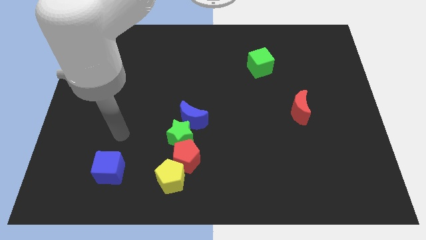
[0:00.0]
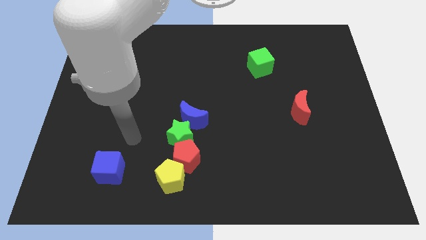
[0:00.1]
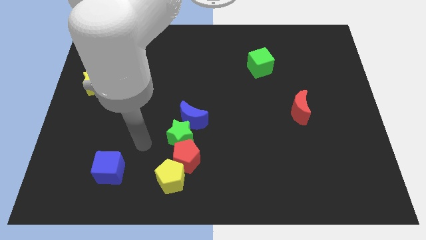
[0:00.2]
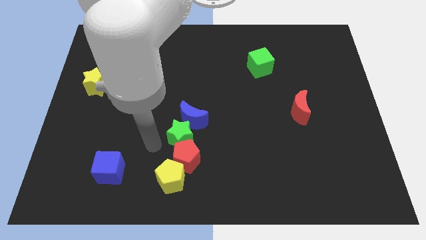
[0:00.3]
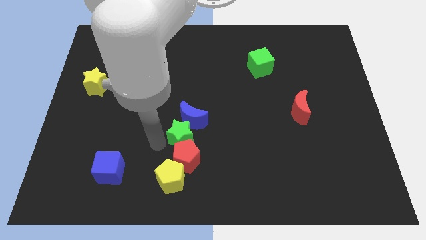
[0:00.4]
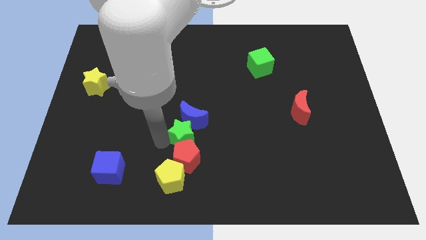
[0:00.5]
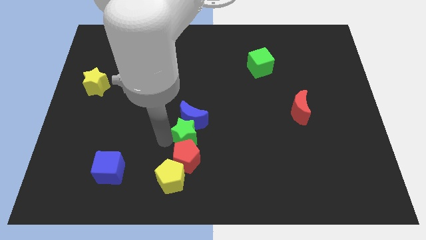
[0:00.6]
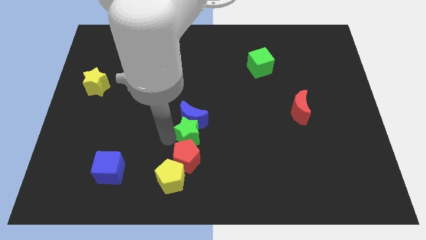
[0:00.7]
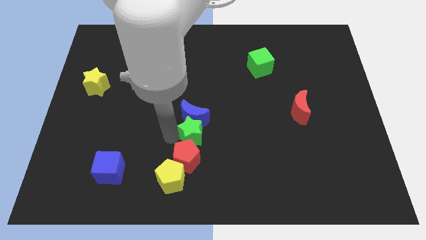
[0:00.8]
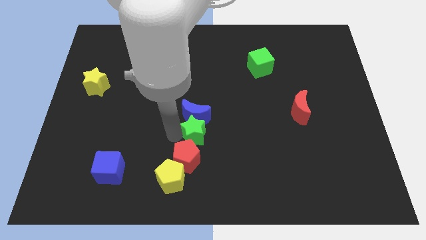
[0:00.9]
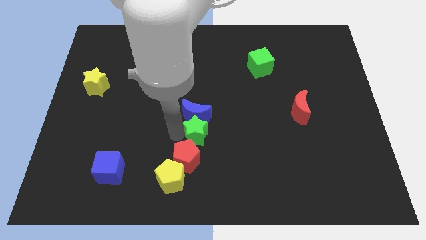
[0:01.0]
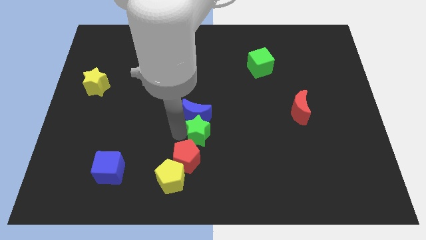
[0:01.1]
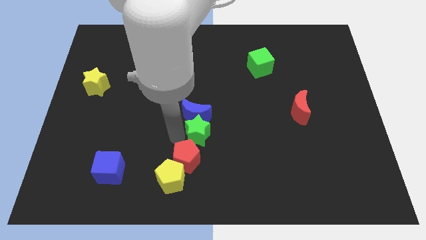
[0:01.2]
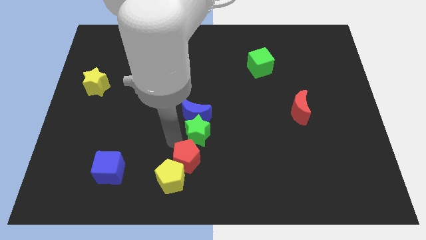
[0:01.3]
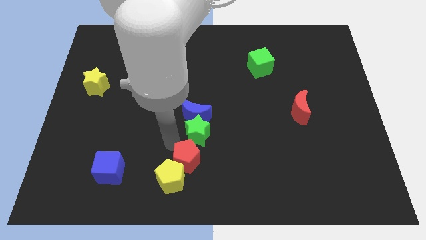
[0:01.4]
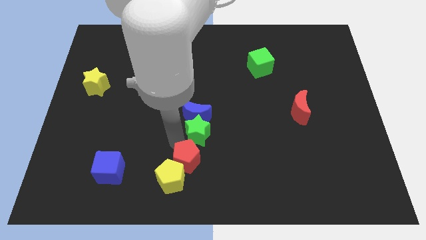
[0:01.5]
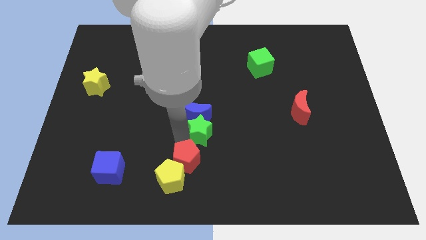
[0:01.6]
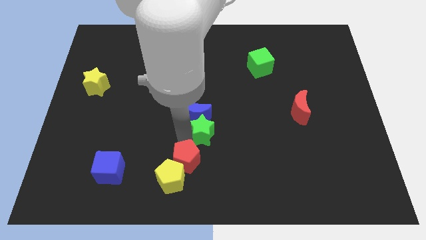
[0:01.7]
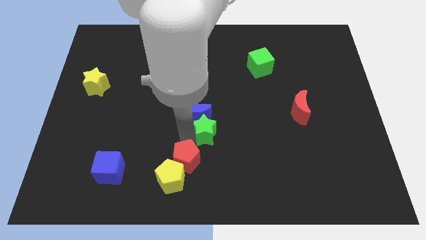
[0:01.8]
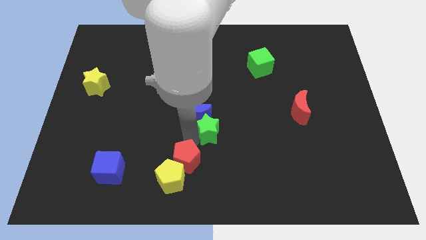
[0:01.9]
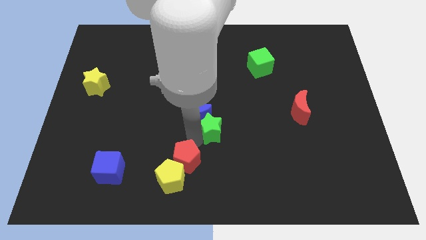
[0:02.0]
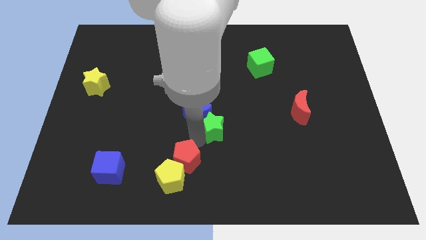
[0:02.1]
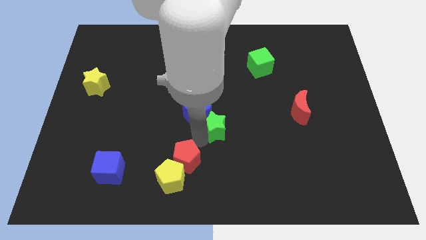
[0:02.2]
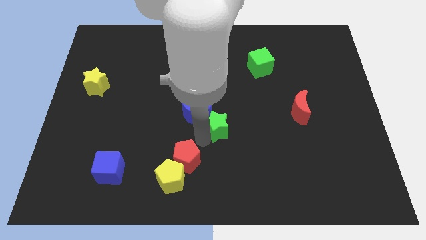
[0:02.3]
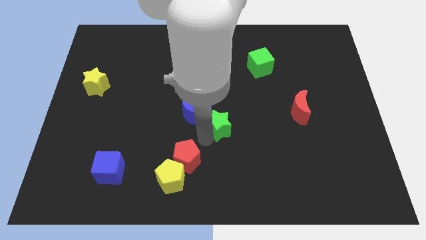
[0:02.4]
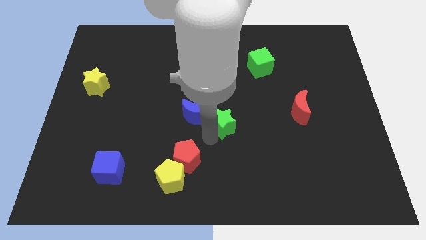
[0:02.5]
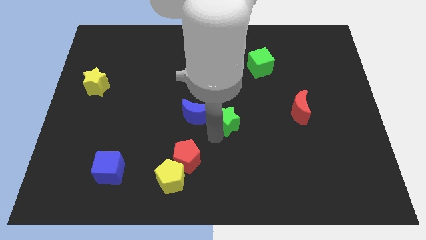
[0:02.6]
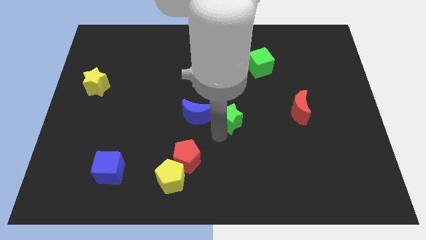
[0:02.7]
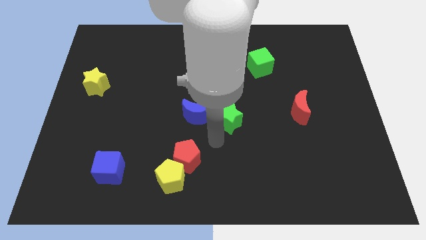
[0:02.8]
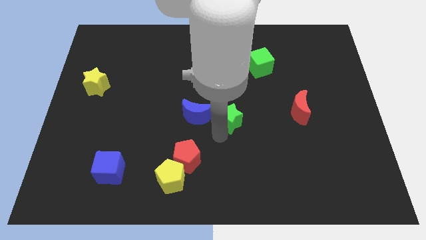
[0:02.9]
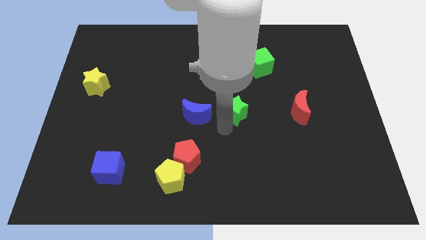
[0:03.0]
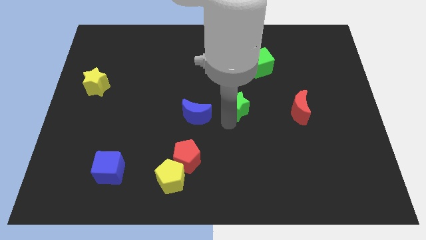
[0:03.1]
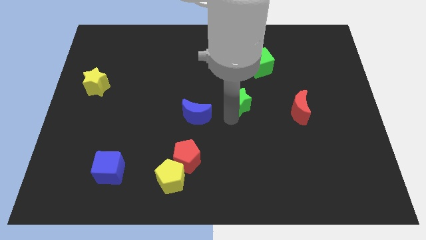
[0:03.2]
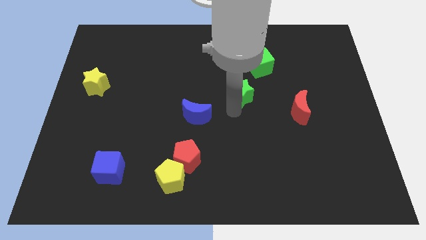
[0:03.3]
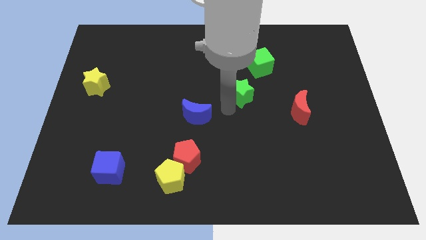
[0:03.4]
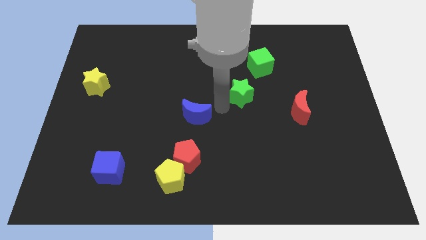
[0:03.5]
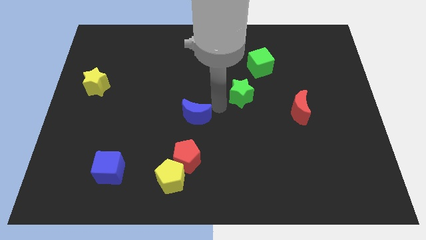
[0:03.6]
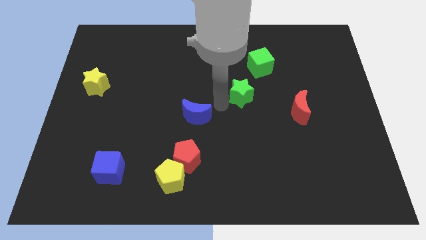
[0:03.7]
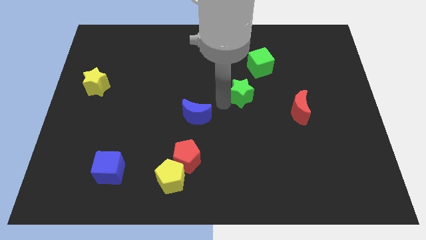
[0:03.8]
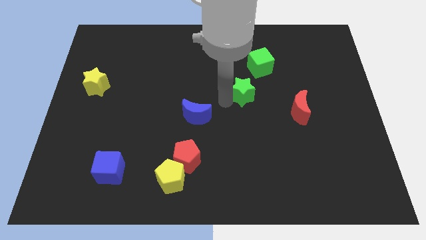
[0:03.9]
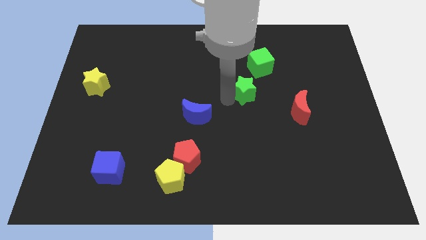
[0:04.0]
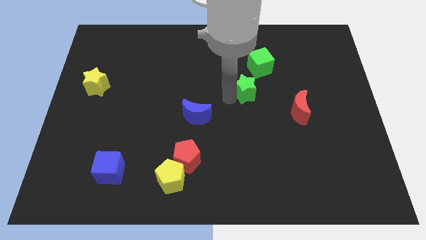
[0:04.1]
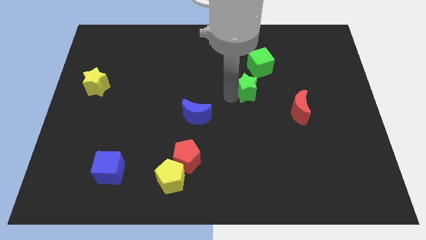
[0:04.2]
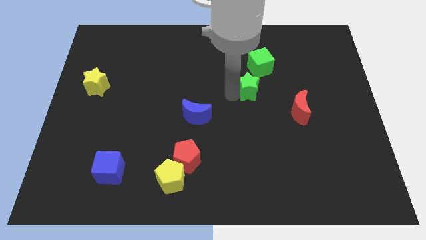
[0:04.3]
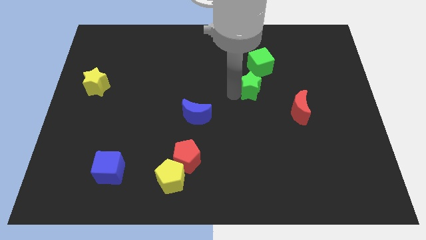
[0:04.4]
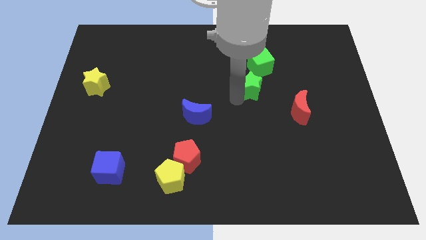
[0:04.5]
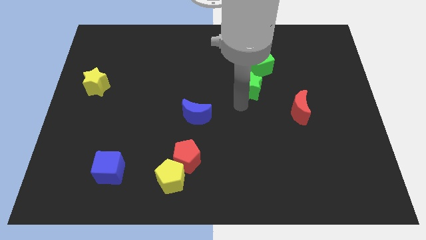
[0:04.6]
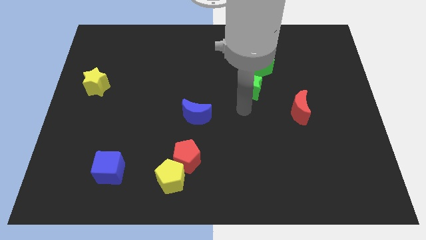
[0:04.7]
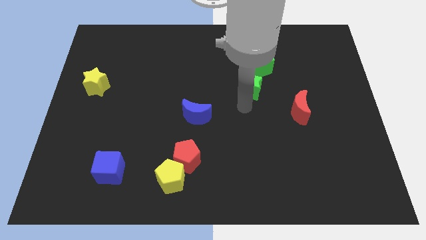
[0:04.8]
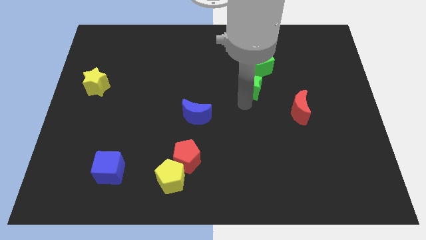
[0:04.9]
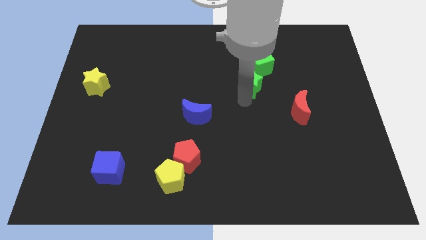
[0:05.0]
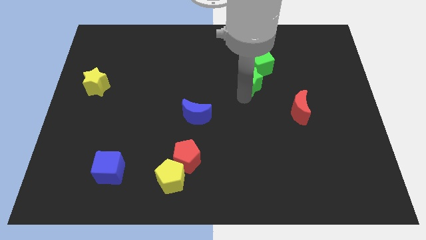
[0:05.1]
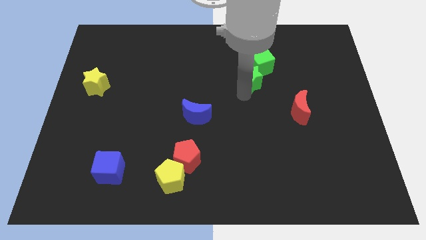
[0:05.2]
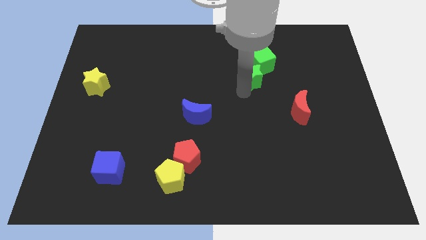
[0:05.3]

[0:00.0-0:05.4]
slide the green star to the green cube

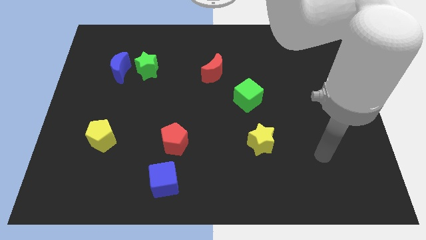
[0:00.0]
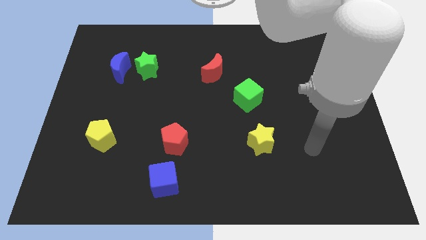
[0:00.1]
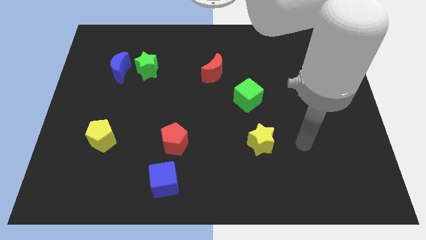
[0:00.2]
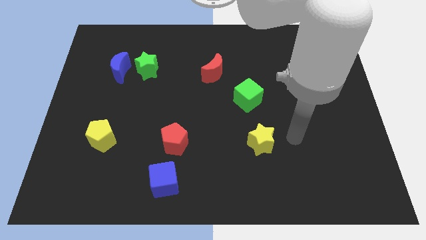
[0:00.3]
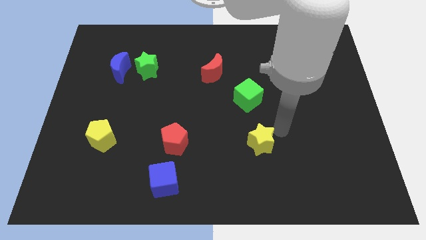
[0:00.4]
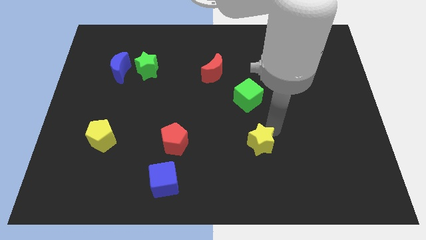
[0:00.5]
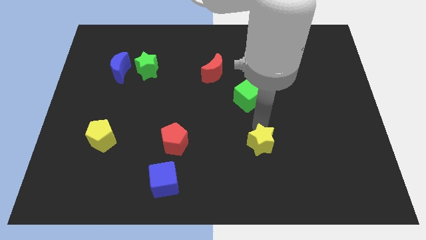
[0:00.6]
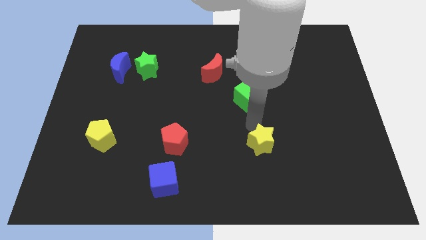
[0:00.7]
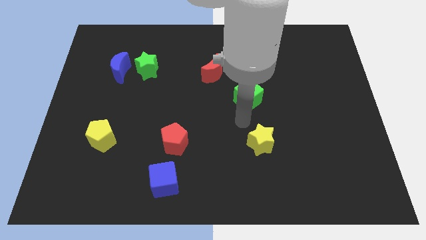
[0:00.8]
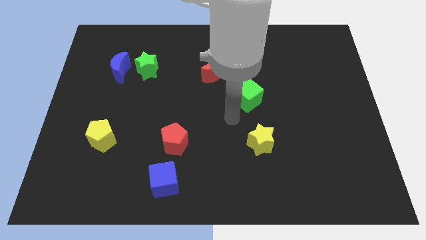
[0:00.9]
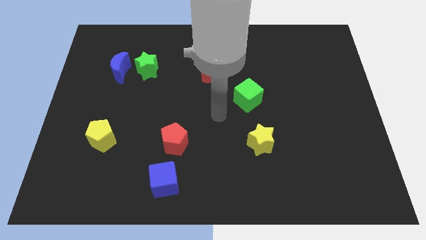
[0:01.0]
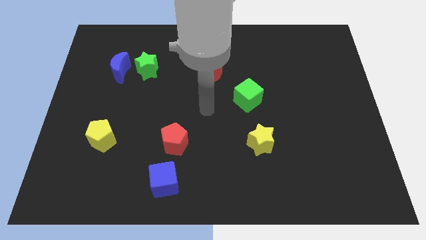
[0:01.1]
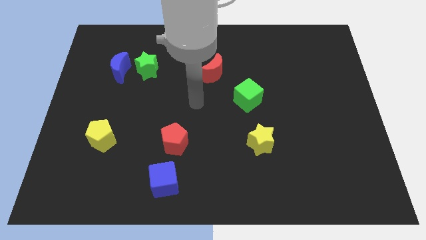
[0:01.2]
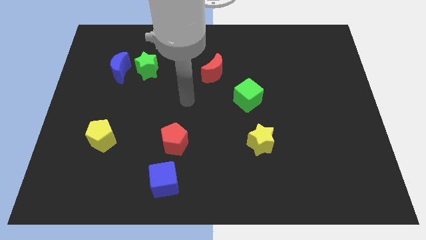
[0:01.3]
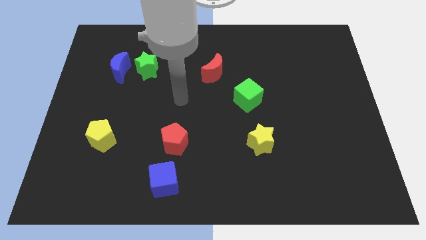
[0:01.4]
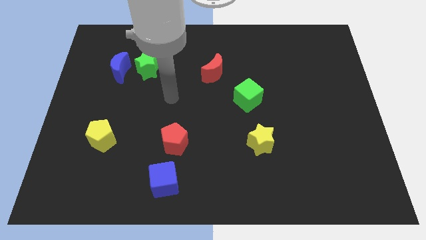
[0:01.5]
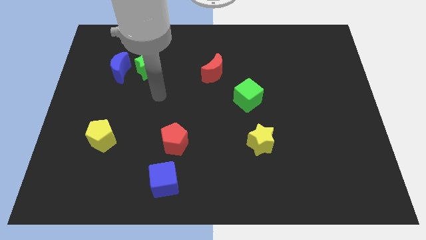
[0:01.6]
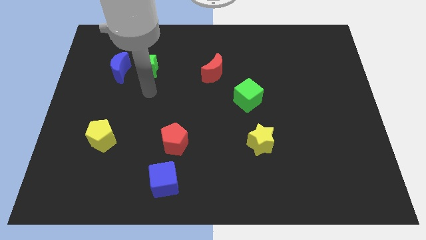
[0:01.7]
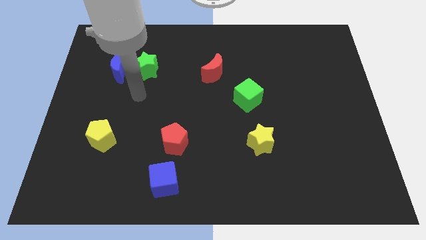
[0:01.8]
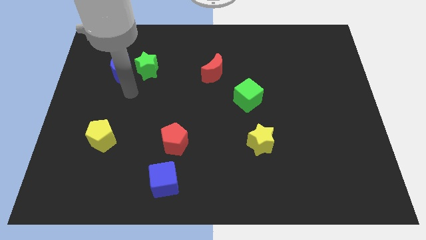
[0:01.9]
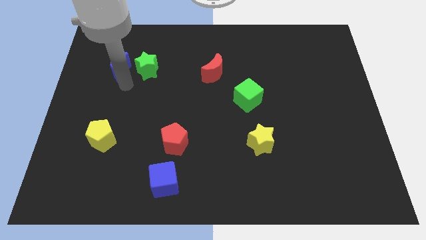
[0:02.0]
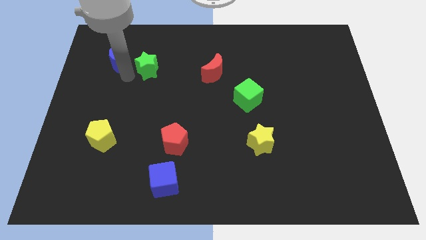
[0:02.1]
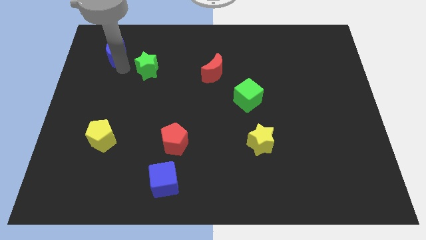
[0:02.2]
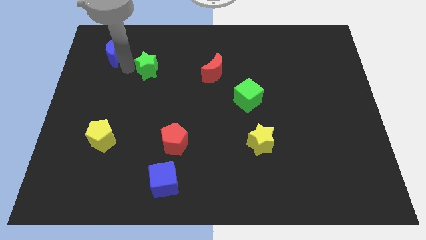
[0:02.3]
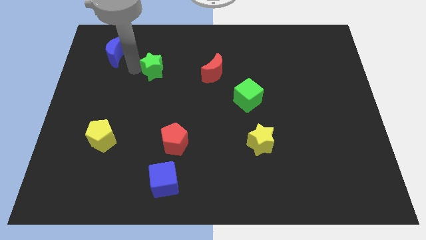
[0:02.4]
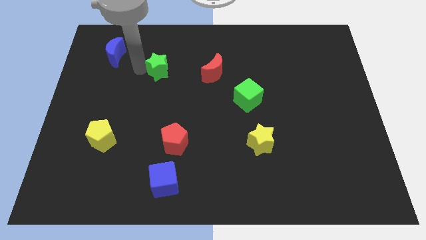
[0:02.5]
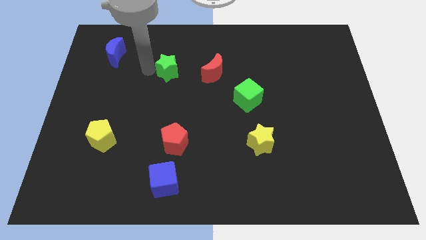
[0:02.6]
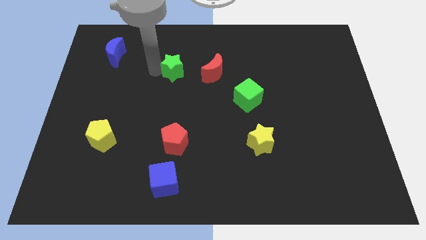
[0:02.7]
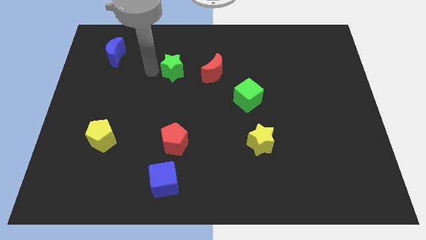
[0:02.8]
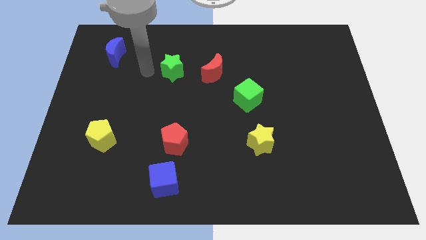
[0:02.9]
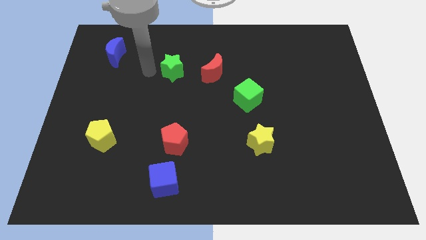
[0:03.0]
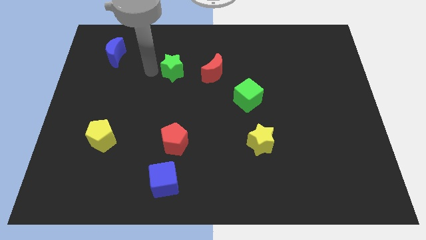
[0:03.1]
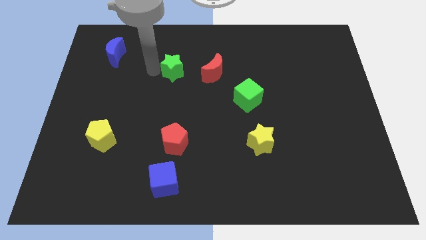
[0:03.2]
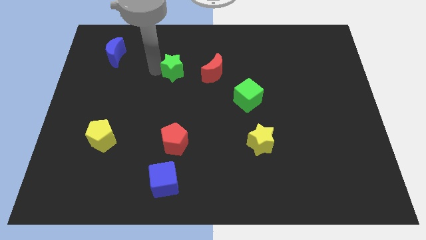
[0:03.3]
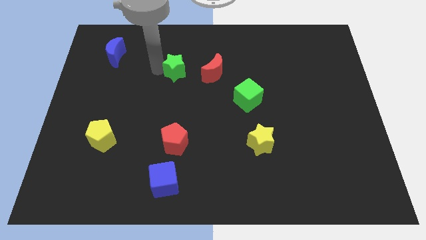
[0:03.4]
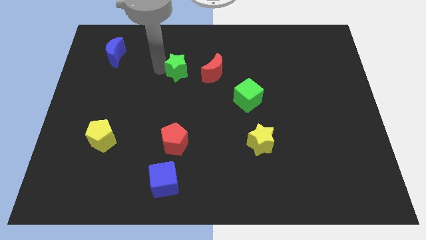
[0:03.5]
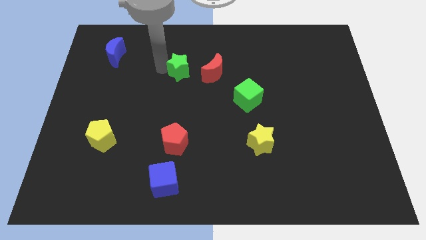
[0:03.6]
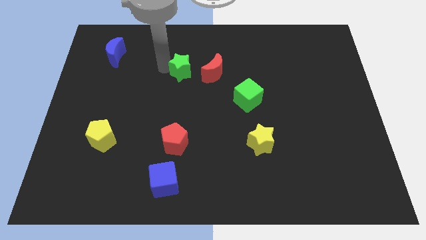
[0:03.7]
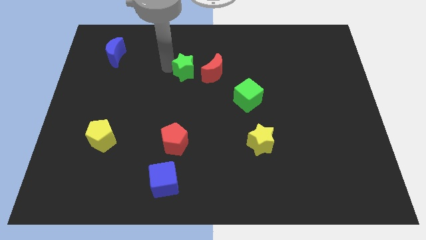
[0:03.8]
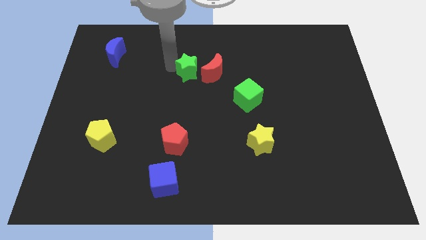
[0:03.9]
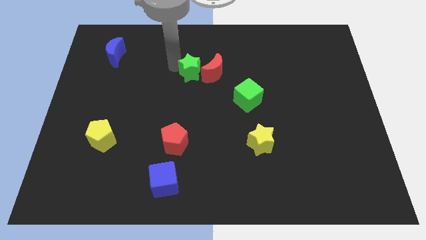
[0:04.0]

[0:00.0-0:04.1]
move the green star to the red moon
